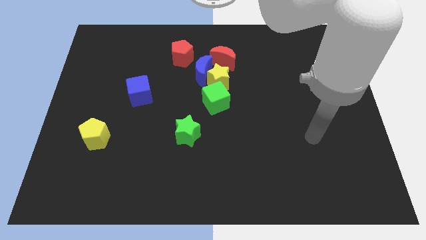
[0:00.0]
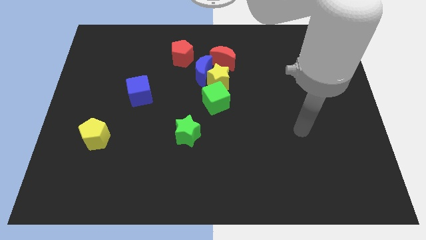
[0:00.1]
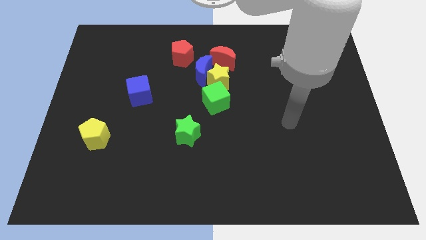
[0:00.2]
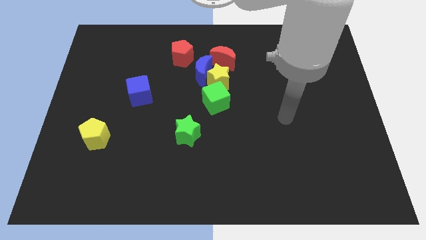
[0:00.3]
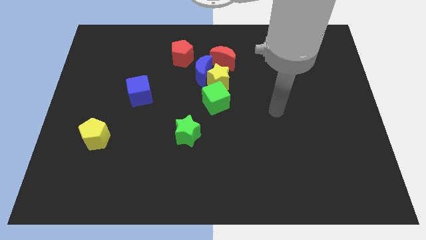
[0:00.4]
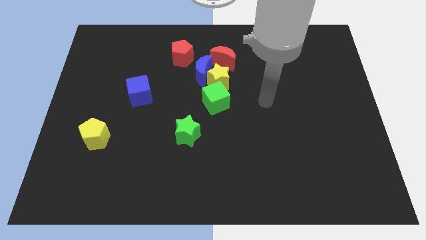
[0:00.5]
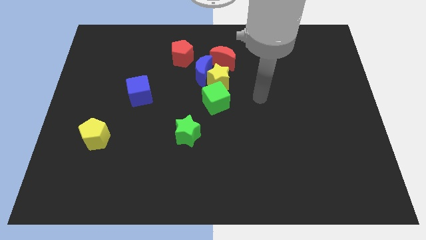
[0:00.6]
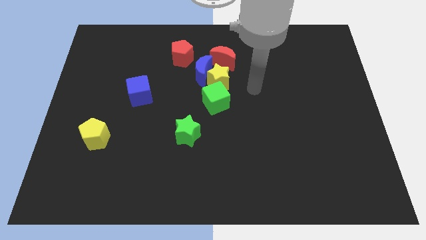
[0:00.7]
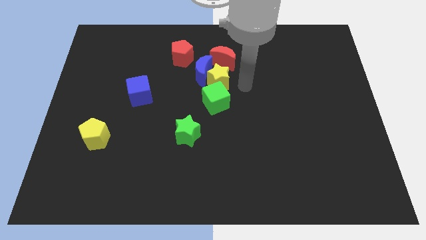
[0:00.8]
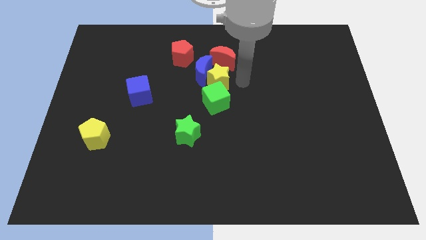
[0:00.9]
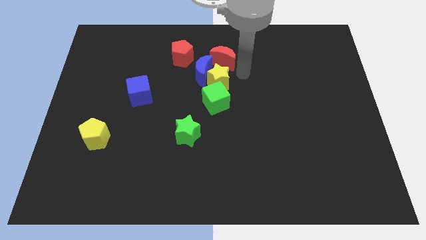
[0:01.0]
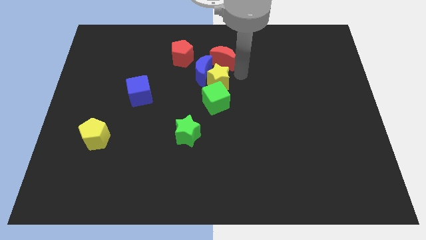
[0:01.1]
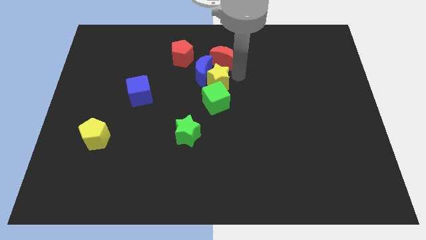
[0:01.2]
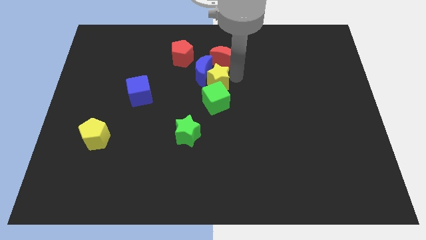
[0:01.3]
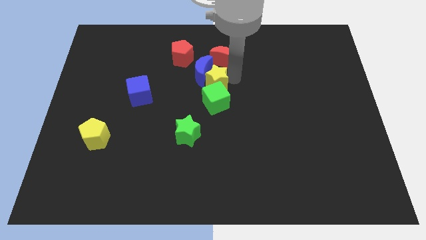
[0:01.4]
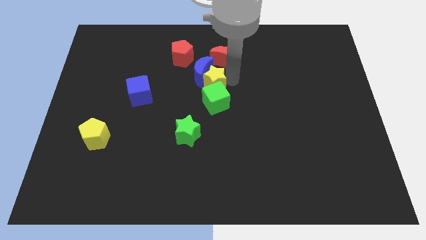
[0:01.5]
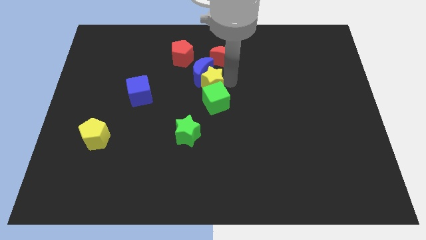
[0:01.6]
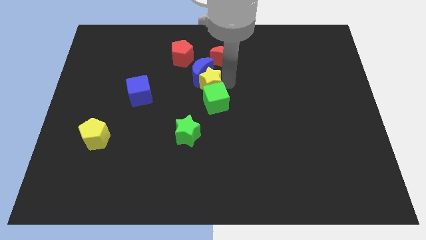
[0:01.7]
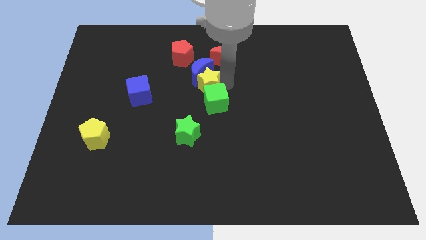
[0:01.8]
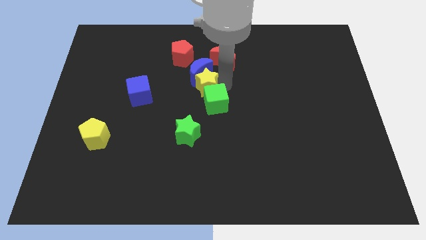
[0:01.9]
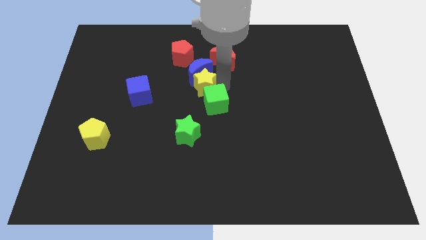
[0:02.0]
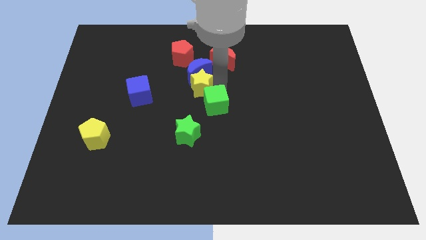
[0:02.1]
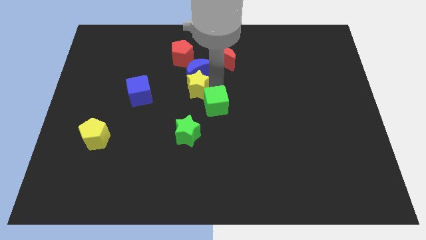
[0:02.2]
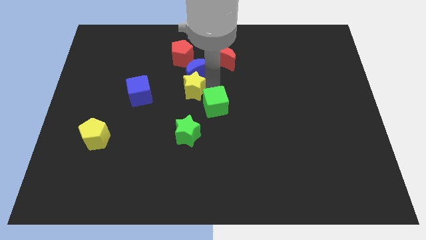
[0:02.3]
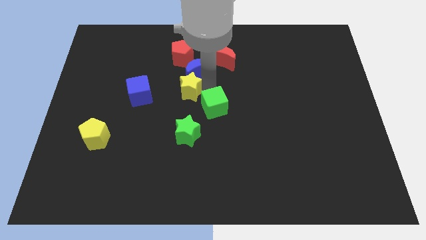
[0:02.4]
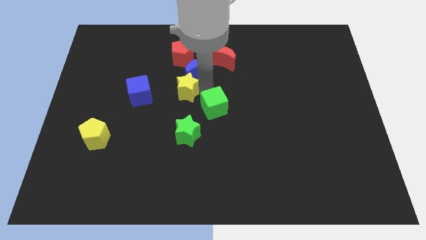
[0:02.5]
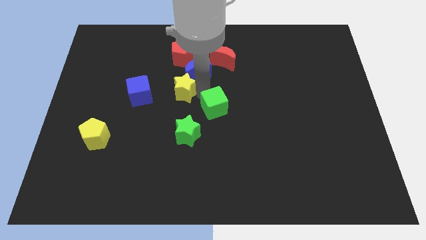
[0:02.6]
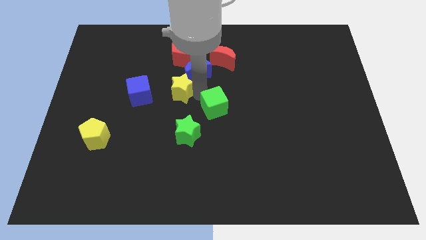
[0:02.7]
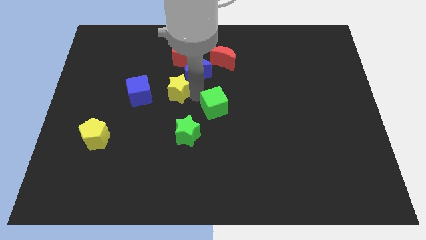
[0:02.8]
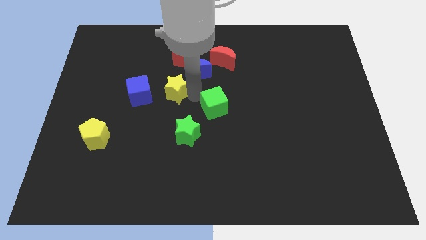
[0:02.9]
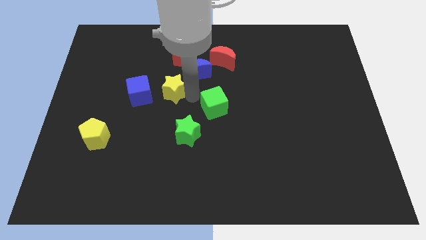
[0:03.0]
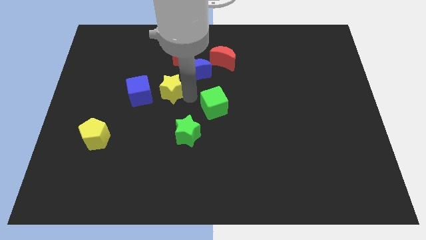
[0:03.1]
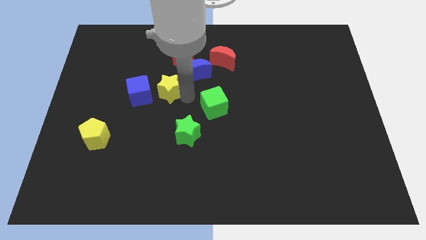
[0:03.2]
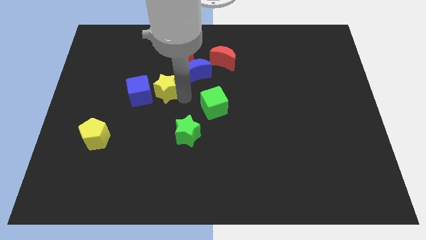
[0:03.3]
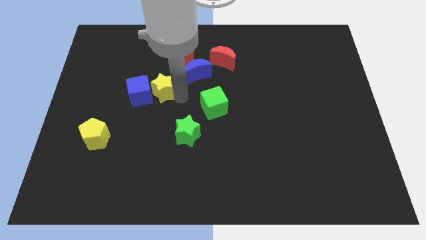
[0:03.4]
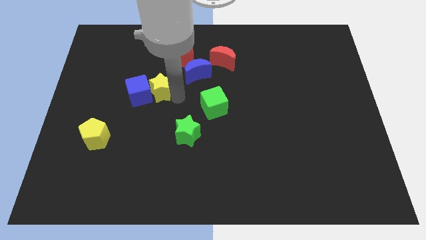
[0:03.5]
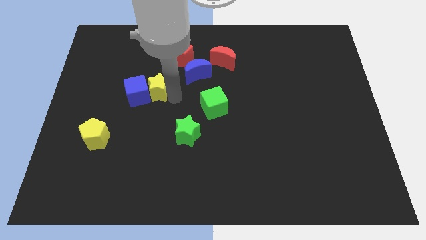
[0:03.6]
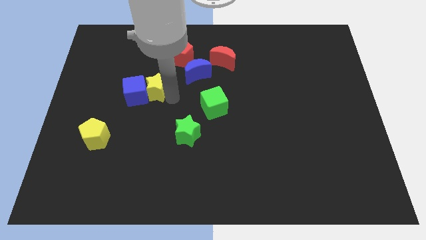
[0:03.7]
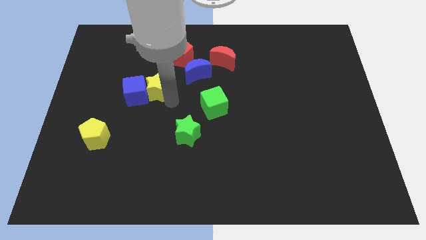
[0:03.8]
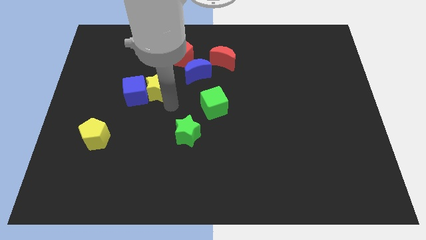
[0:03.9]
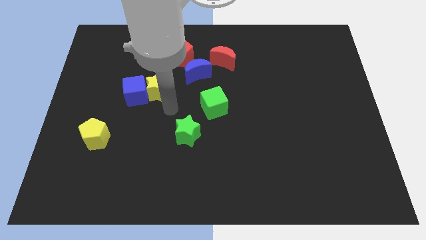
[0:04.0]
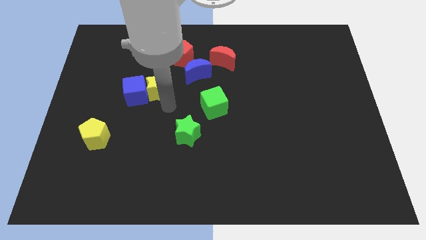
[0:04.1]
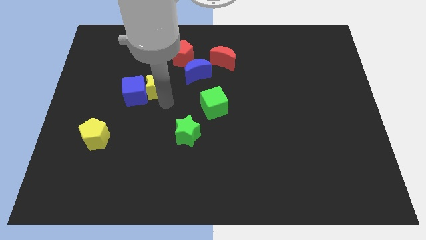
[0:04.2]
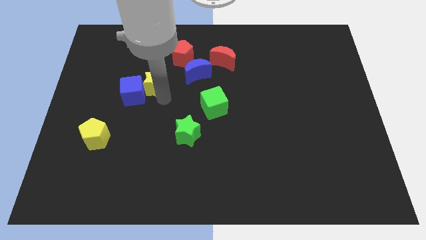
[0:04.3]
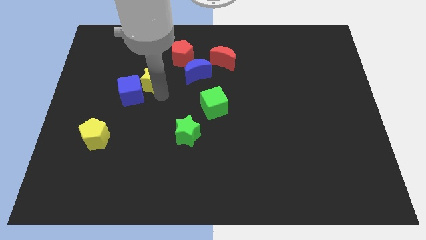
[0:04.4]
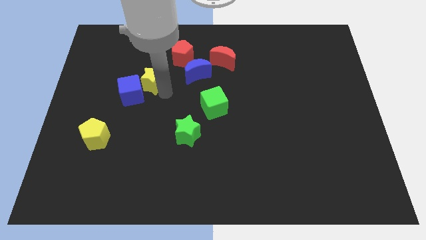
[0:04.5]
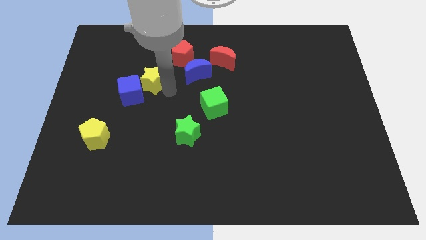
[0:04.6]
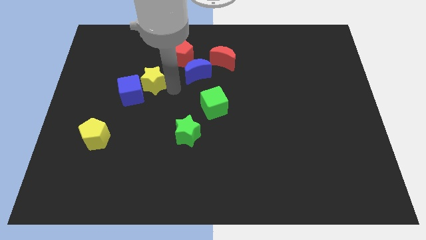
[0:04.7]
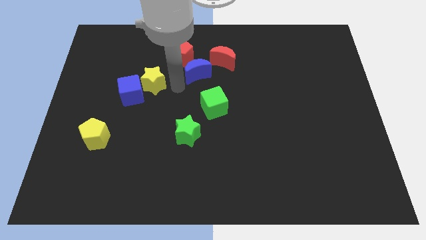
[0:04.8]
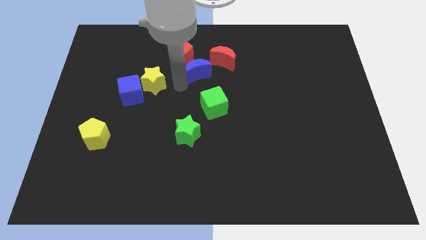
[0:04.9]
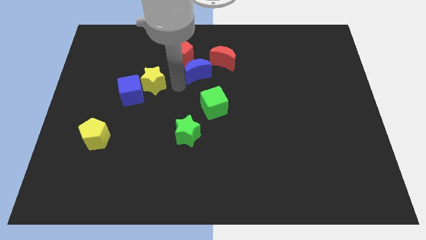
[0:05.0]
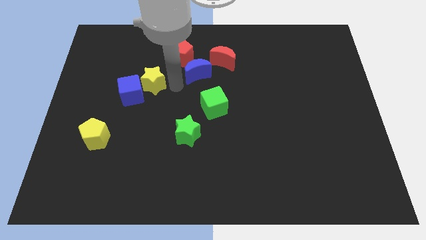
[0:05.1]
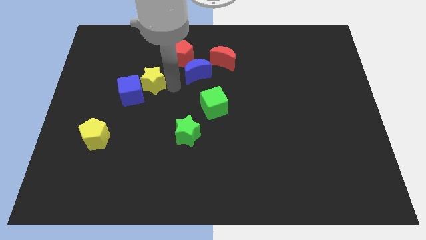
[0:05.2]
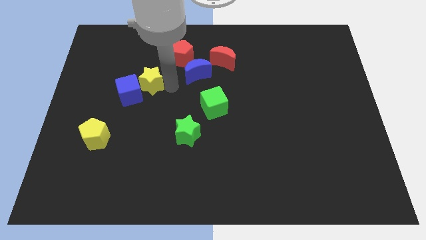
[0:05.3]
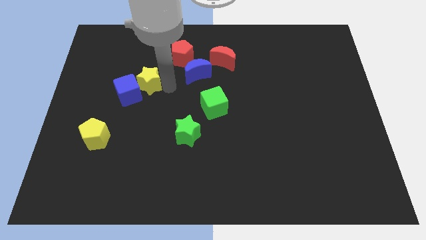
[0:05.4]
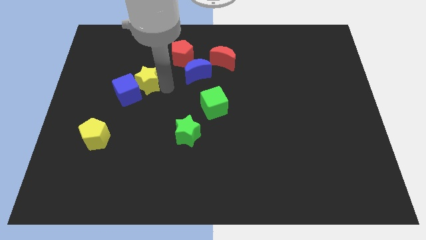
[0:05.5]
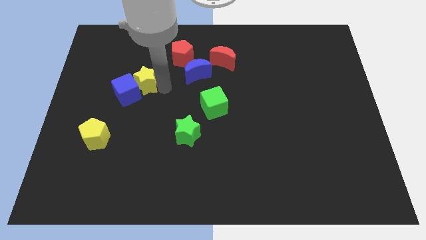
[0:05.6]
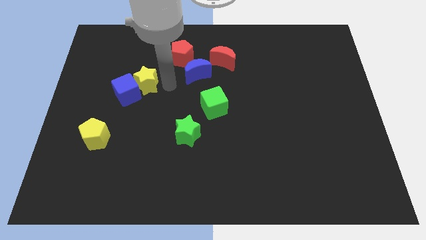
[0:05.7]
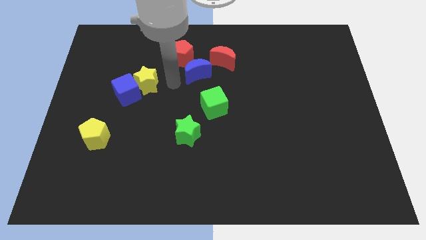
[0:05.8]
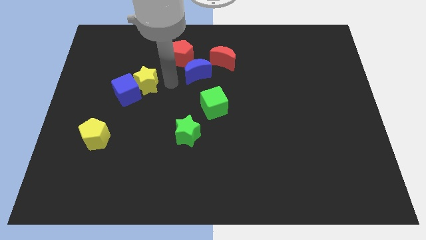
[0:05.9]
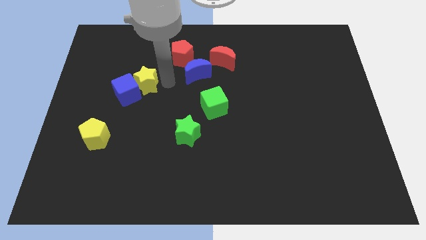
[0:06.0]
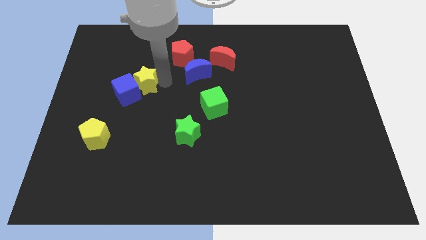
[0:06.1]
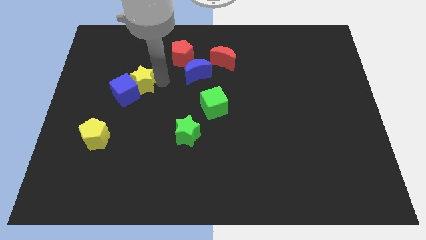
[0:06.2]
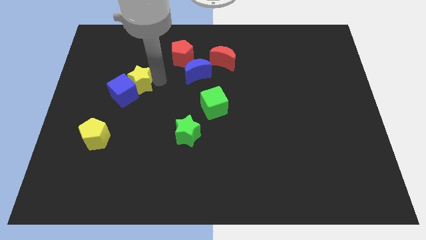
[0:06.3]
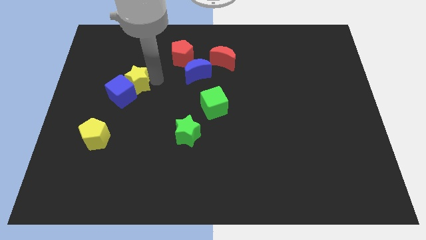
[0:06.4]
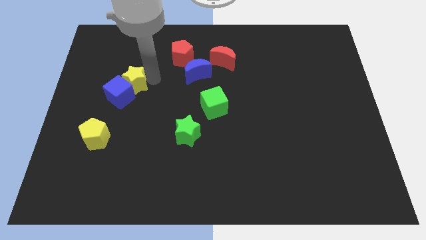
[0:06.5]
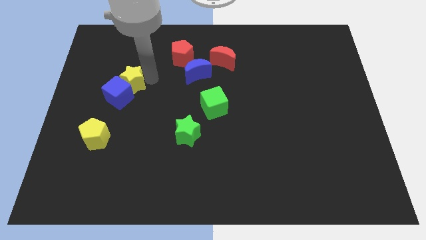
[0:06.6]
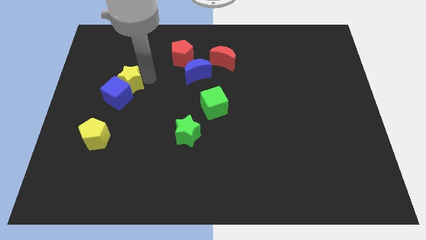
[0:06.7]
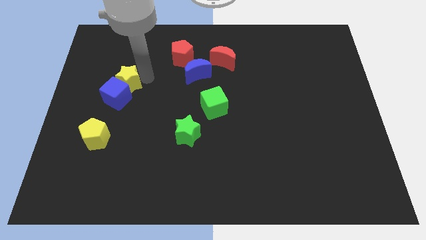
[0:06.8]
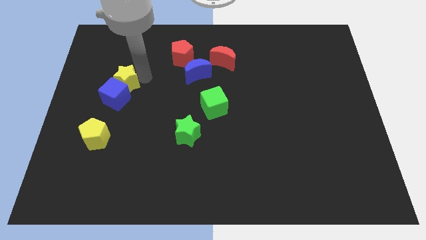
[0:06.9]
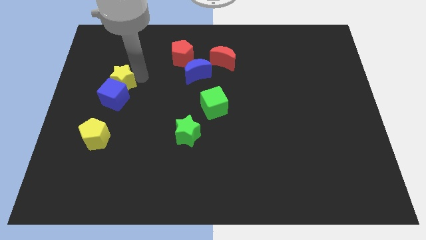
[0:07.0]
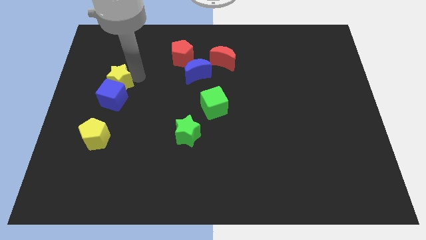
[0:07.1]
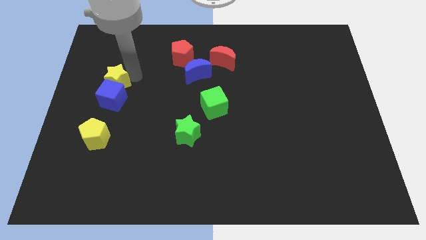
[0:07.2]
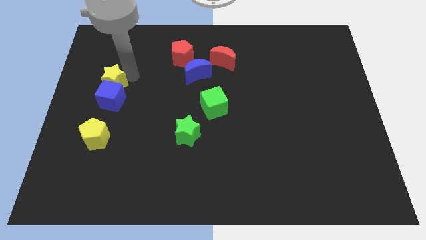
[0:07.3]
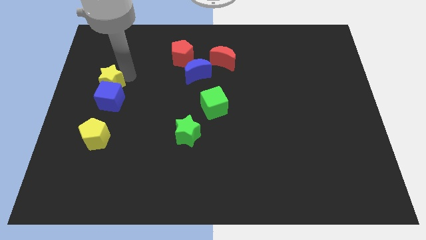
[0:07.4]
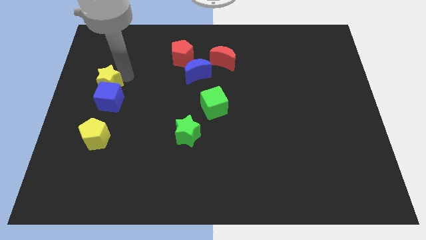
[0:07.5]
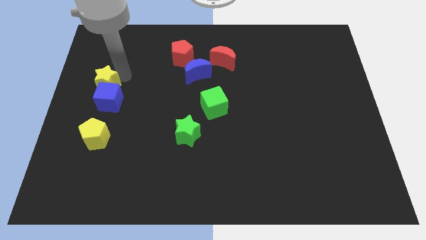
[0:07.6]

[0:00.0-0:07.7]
move the yellow star to the center left

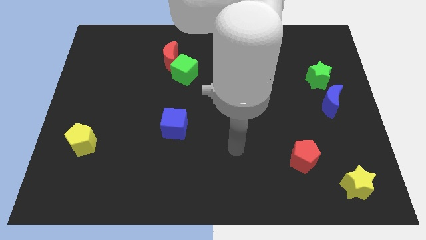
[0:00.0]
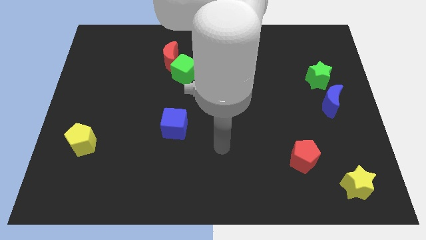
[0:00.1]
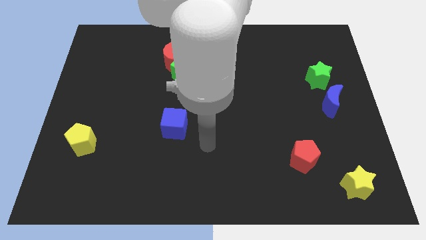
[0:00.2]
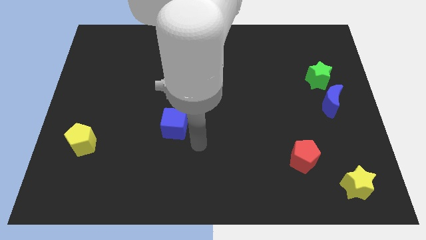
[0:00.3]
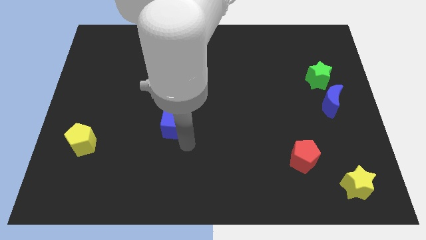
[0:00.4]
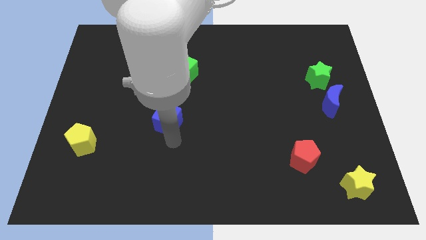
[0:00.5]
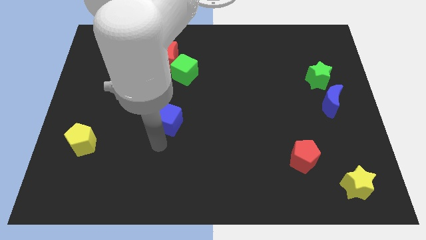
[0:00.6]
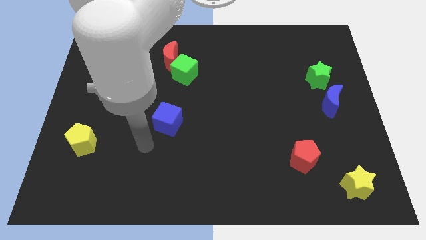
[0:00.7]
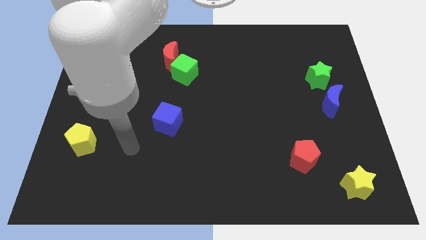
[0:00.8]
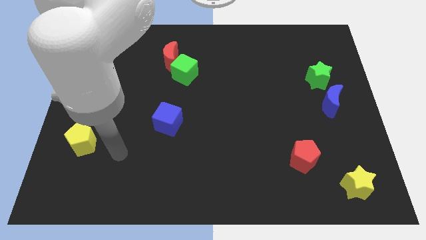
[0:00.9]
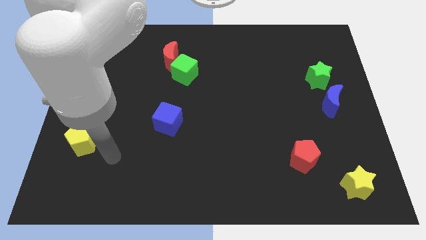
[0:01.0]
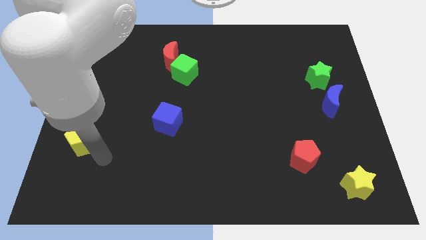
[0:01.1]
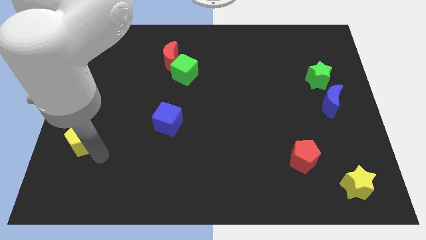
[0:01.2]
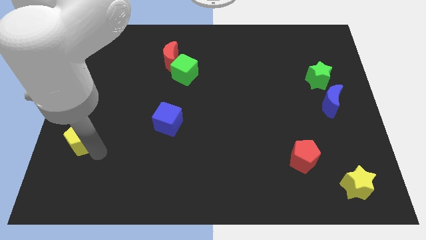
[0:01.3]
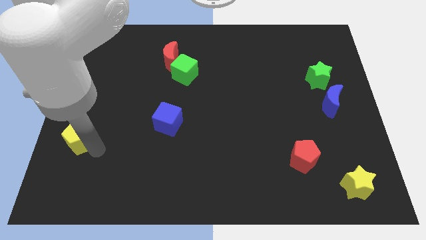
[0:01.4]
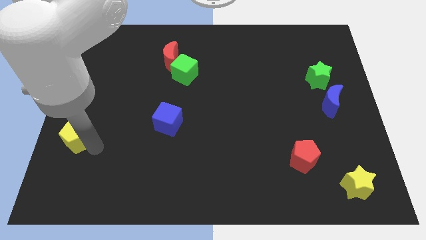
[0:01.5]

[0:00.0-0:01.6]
put the yellow pentagon to the center left
